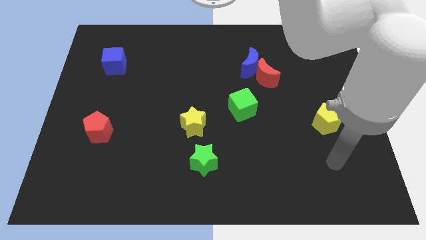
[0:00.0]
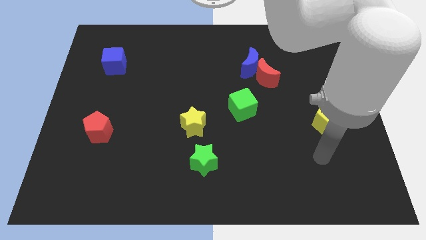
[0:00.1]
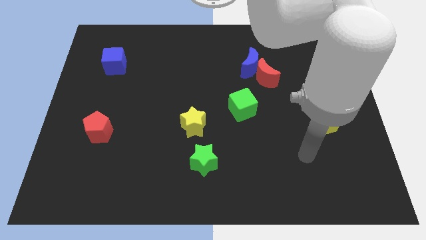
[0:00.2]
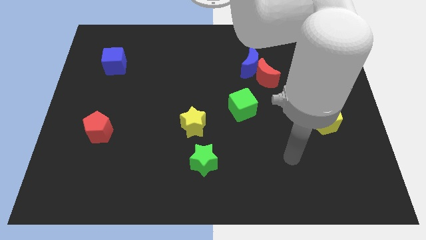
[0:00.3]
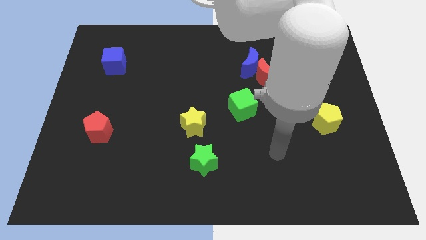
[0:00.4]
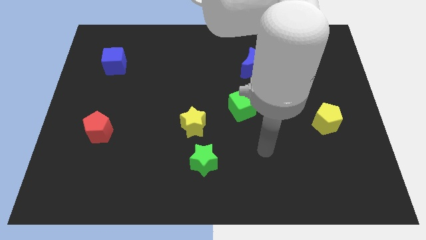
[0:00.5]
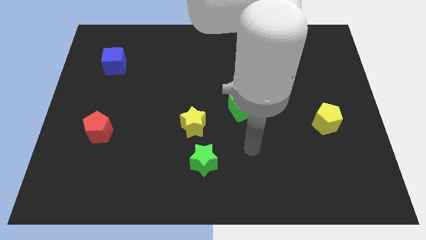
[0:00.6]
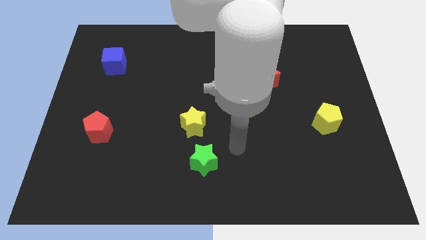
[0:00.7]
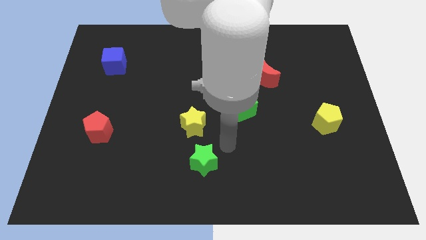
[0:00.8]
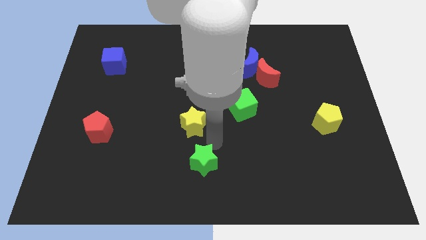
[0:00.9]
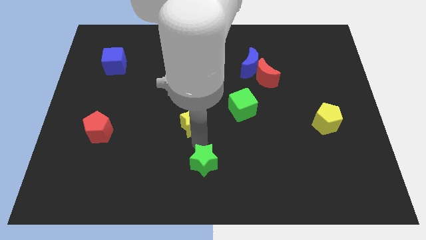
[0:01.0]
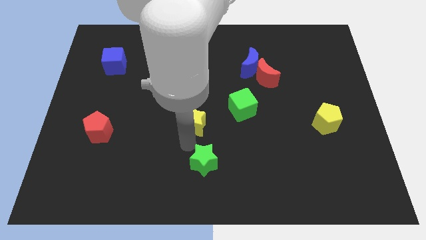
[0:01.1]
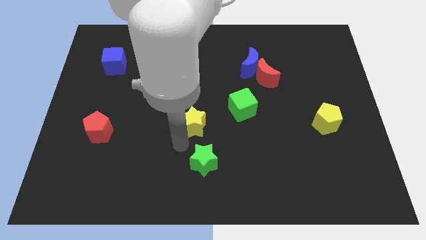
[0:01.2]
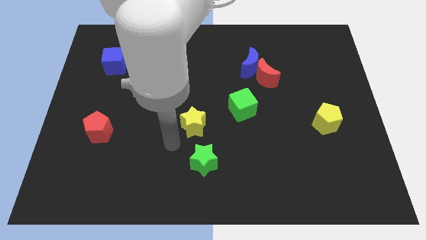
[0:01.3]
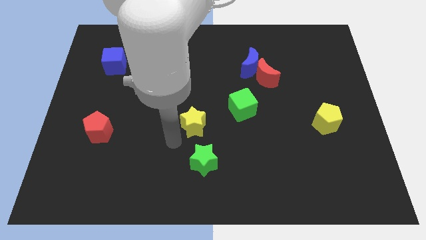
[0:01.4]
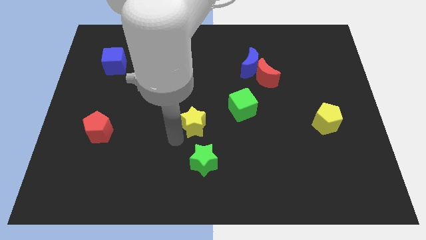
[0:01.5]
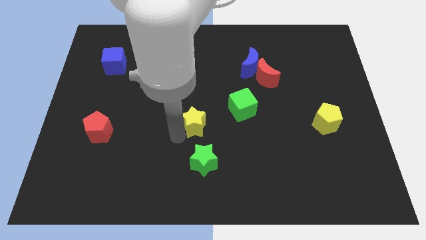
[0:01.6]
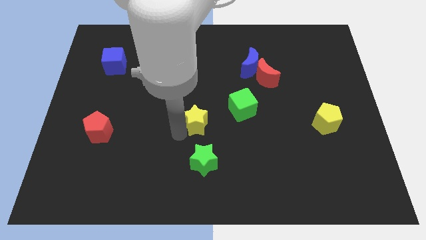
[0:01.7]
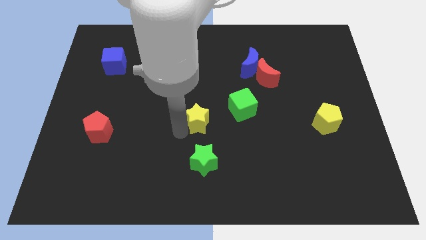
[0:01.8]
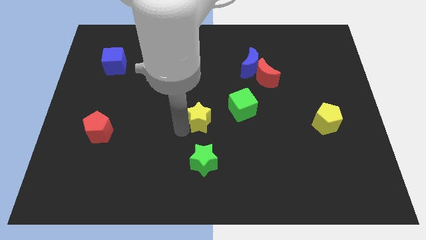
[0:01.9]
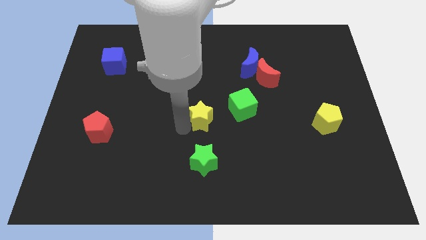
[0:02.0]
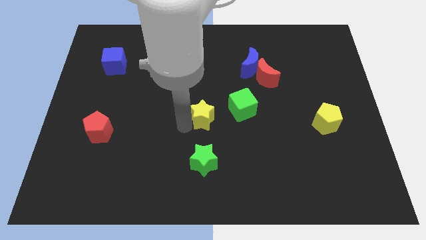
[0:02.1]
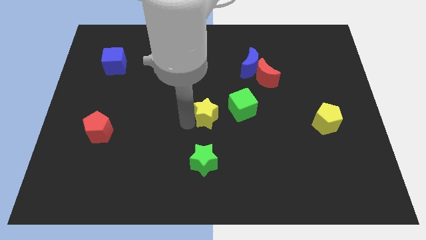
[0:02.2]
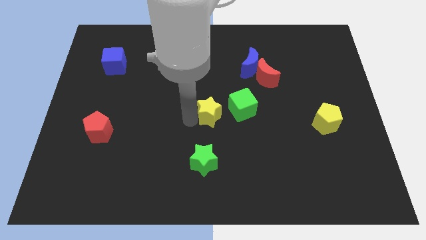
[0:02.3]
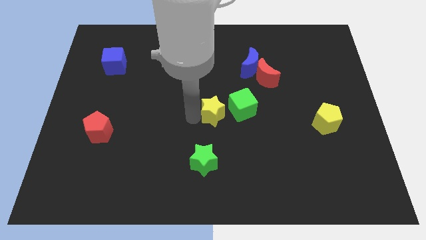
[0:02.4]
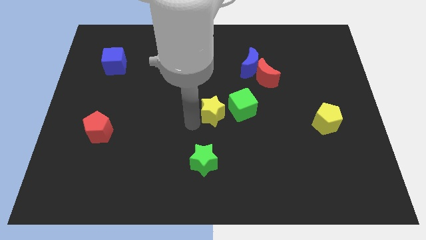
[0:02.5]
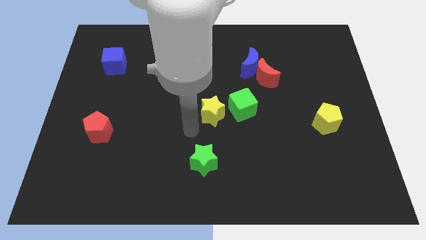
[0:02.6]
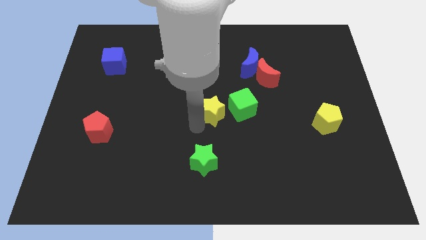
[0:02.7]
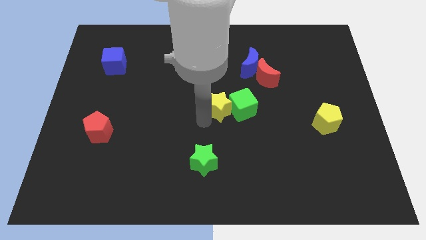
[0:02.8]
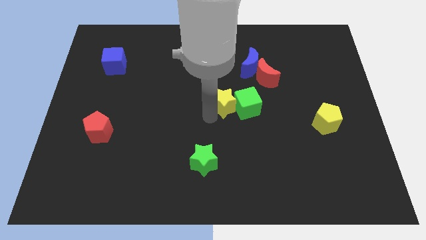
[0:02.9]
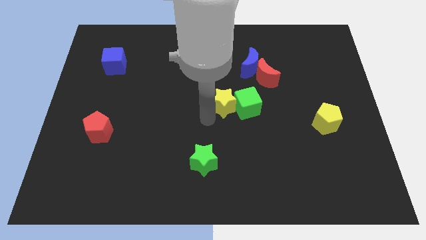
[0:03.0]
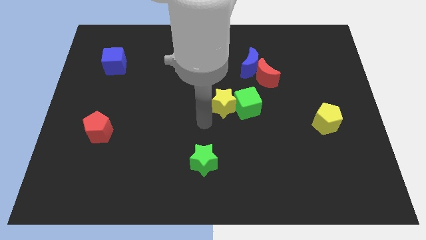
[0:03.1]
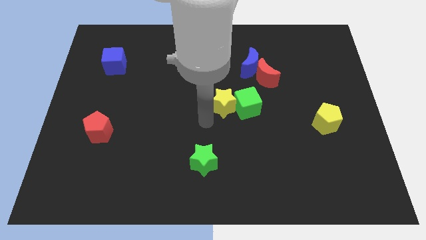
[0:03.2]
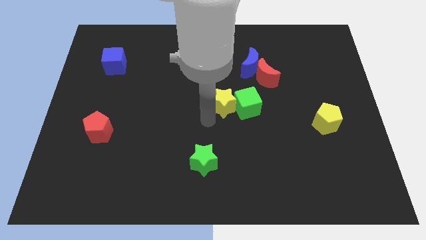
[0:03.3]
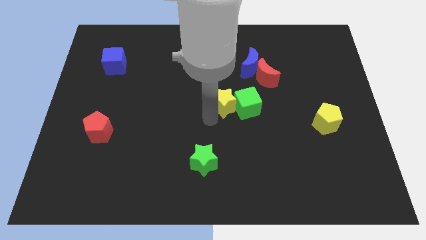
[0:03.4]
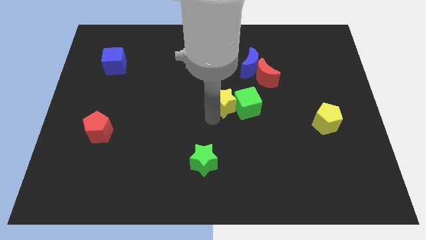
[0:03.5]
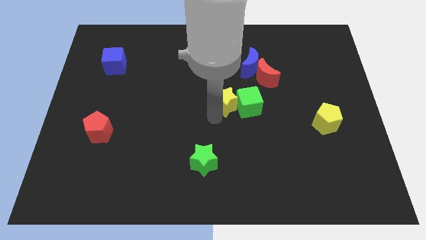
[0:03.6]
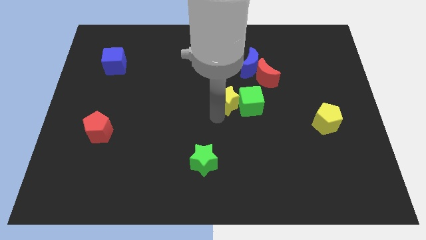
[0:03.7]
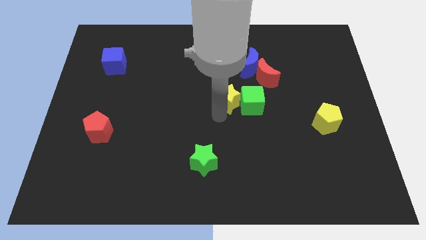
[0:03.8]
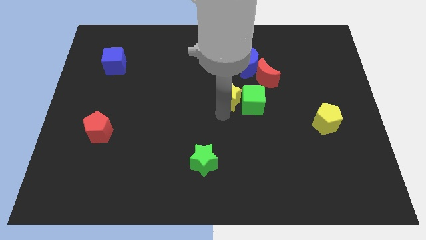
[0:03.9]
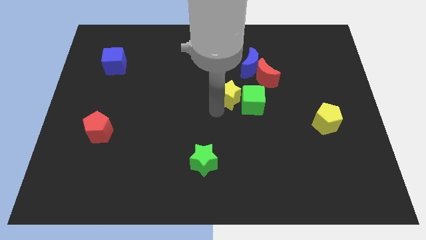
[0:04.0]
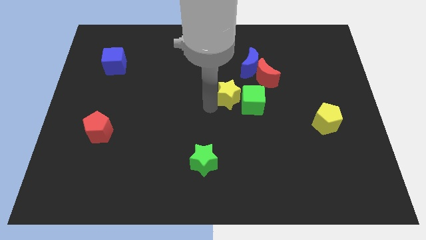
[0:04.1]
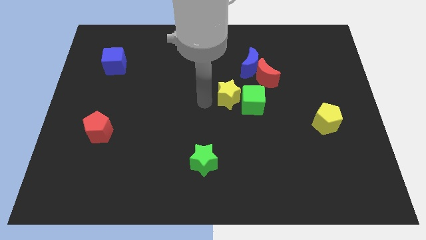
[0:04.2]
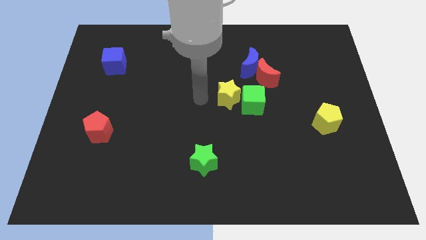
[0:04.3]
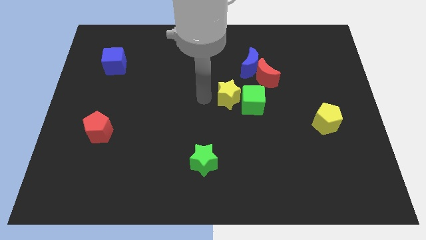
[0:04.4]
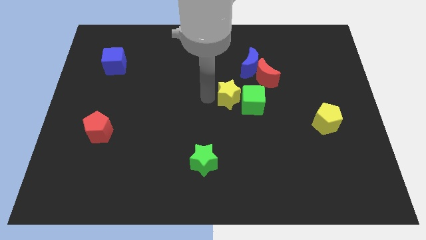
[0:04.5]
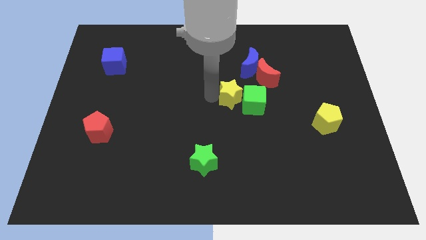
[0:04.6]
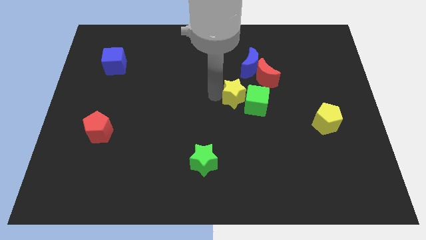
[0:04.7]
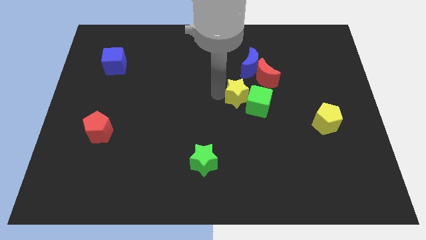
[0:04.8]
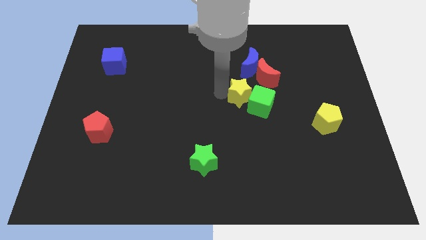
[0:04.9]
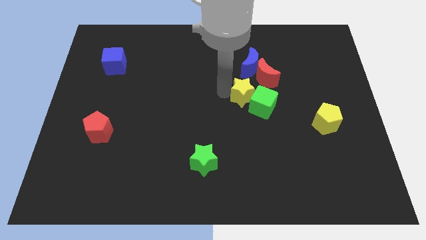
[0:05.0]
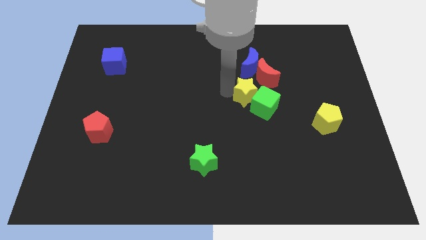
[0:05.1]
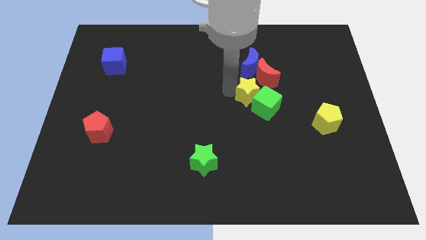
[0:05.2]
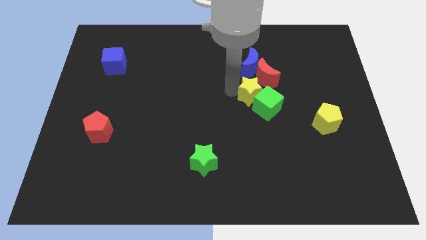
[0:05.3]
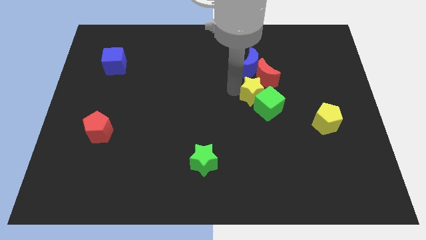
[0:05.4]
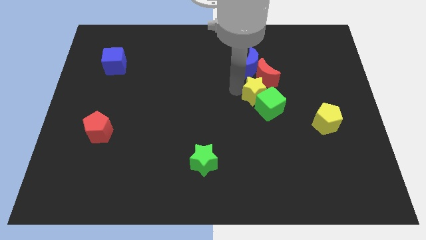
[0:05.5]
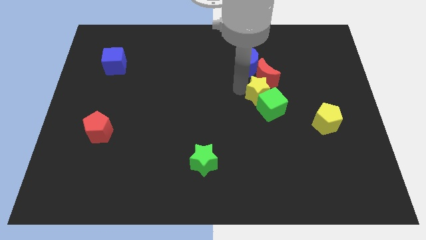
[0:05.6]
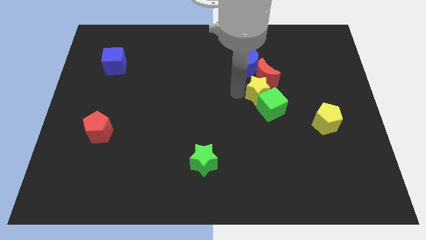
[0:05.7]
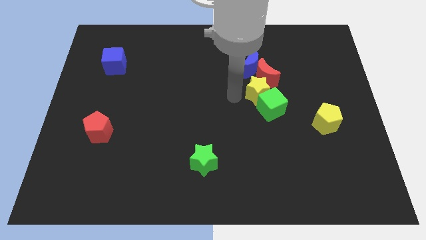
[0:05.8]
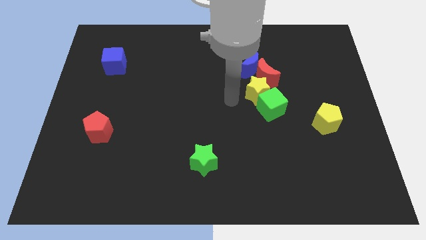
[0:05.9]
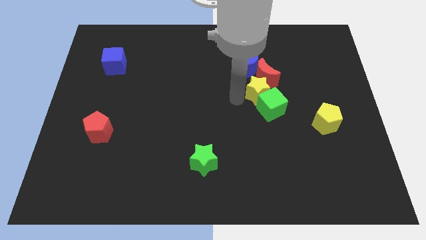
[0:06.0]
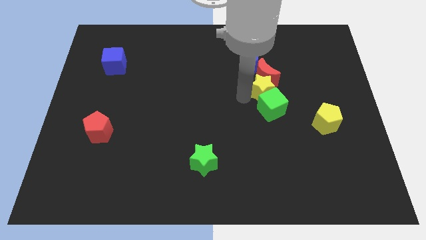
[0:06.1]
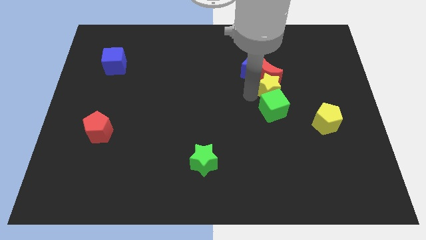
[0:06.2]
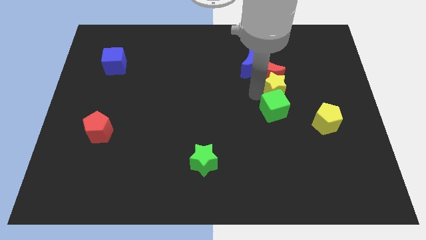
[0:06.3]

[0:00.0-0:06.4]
move the yellow star diagonally upwards and right

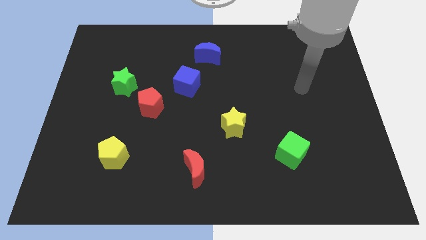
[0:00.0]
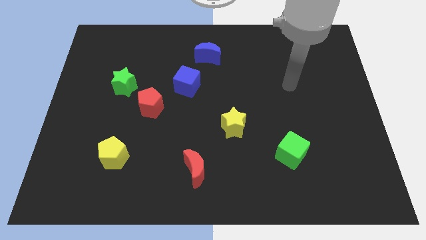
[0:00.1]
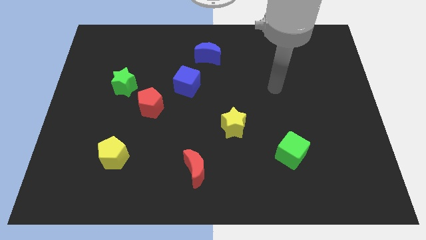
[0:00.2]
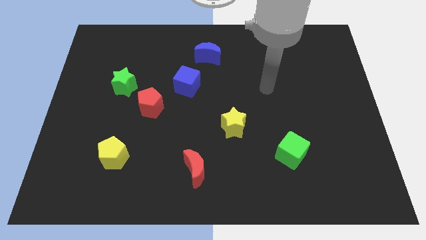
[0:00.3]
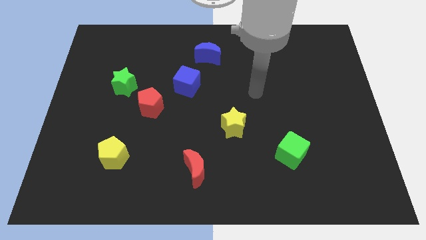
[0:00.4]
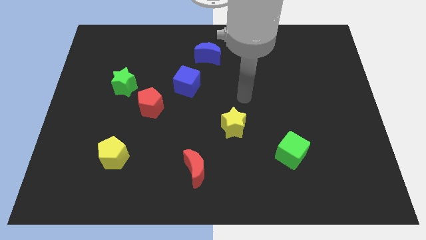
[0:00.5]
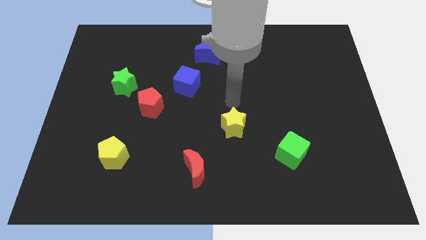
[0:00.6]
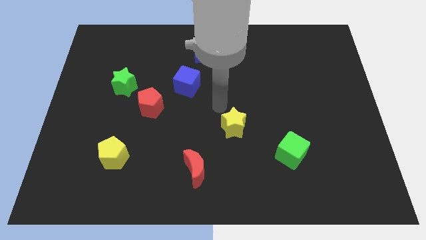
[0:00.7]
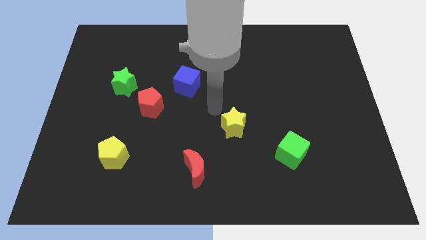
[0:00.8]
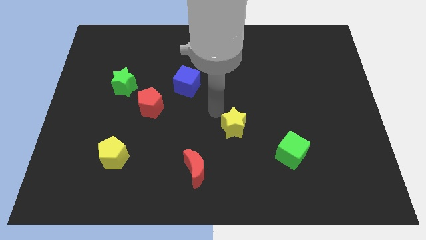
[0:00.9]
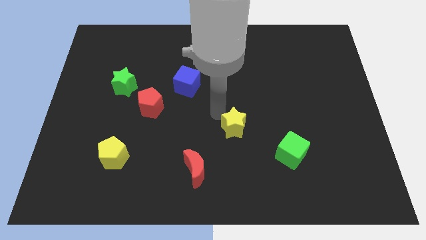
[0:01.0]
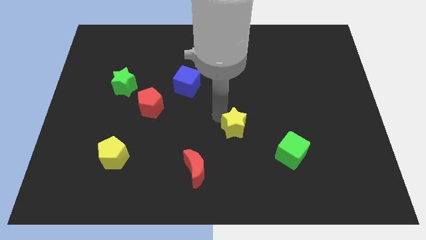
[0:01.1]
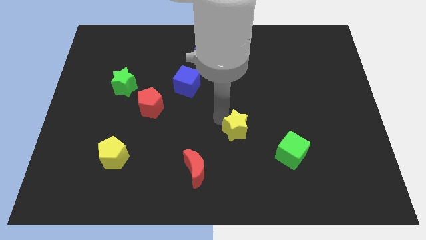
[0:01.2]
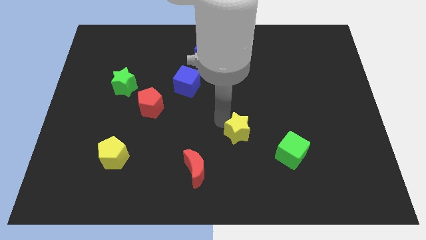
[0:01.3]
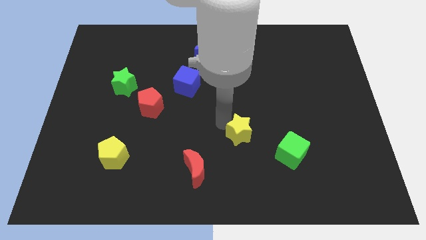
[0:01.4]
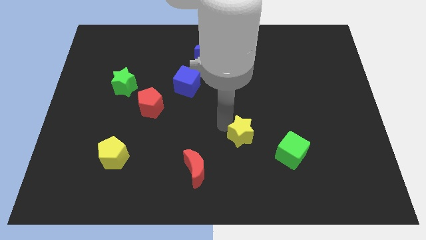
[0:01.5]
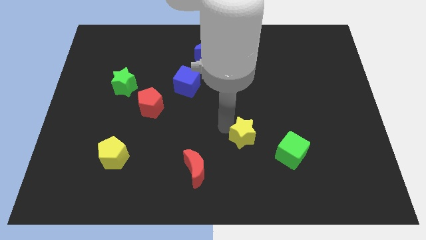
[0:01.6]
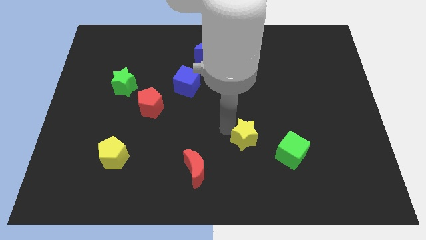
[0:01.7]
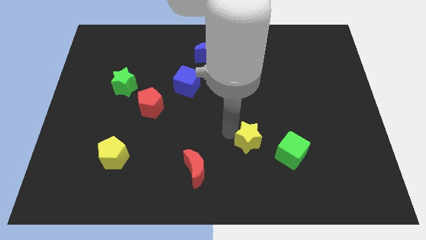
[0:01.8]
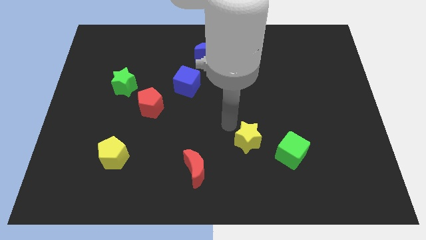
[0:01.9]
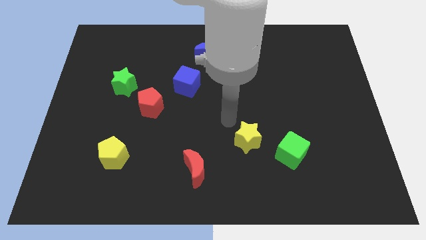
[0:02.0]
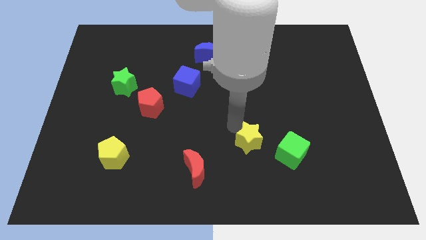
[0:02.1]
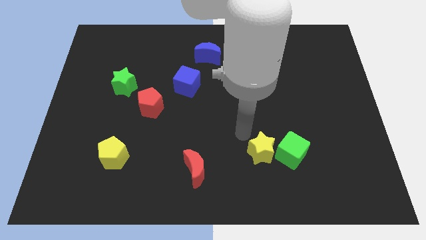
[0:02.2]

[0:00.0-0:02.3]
push the yellow star downwards and to the right diagonally somewhat
